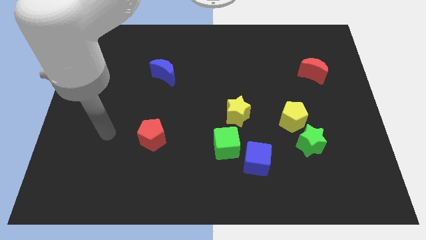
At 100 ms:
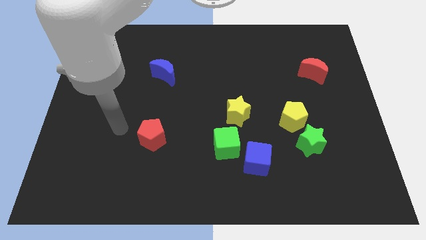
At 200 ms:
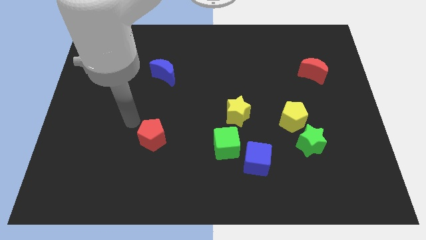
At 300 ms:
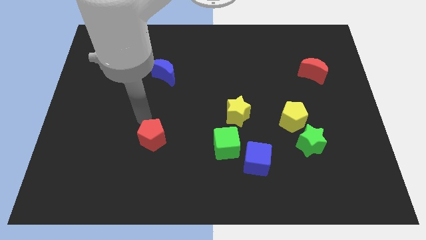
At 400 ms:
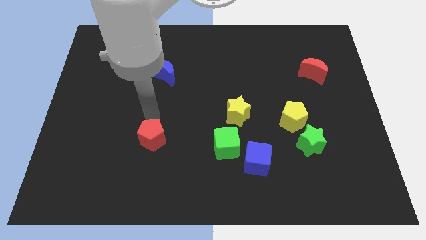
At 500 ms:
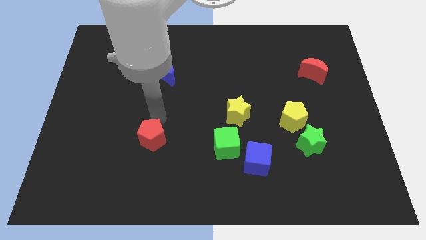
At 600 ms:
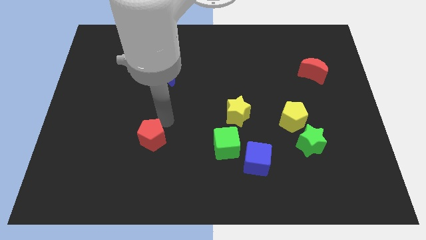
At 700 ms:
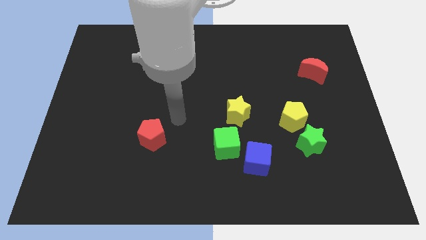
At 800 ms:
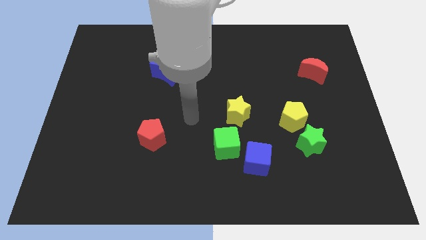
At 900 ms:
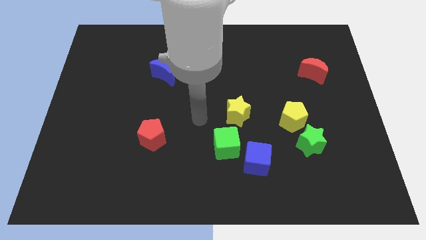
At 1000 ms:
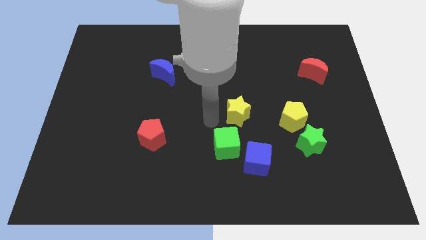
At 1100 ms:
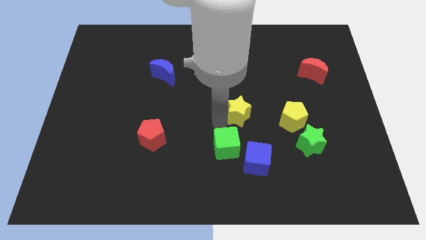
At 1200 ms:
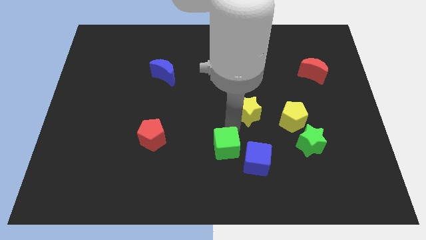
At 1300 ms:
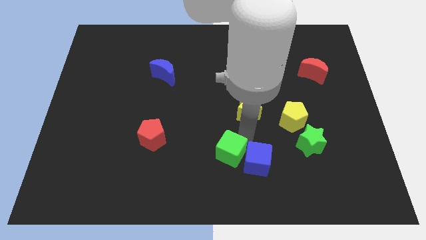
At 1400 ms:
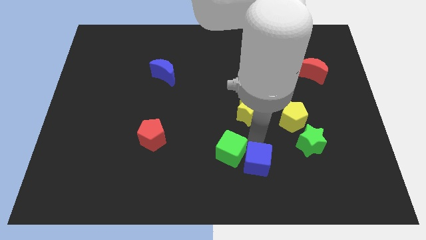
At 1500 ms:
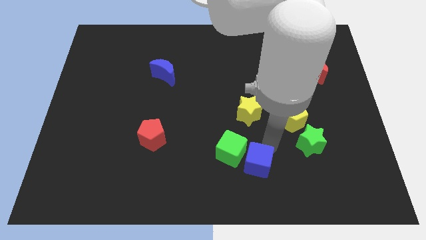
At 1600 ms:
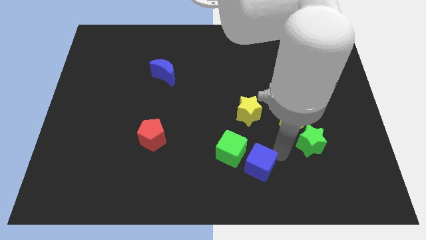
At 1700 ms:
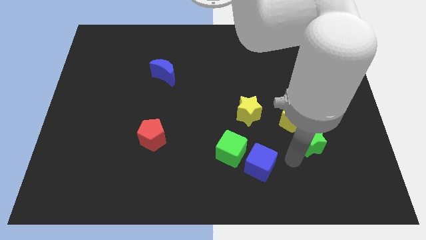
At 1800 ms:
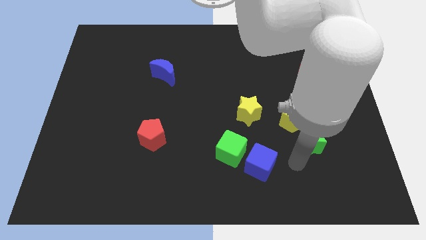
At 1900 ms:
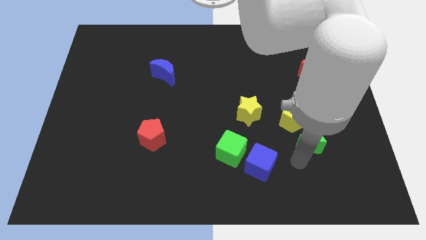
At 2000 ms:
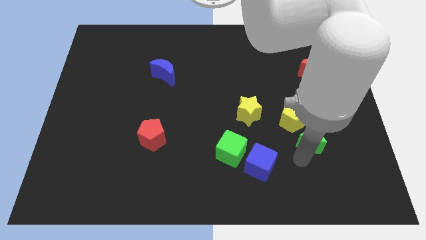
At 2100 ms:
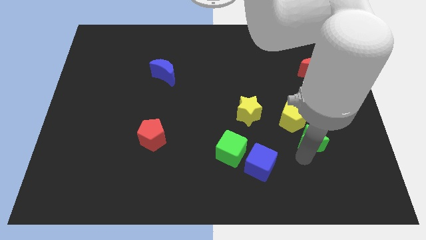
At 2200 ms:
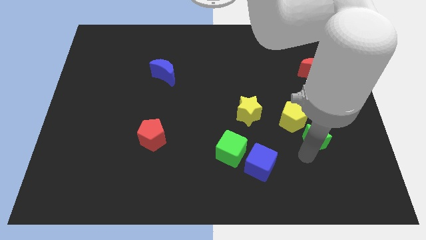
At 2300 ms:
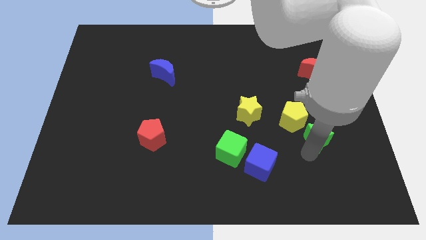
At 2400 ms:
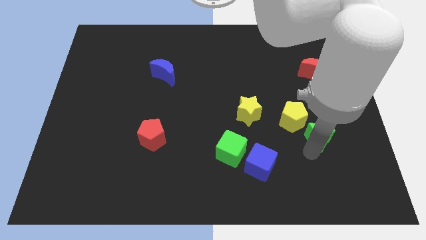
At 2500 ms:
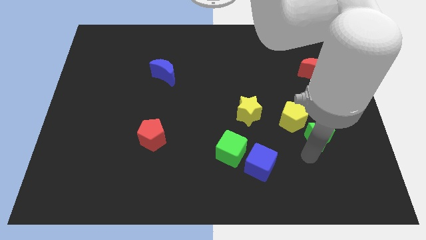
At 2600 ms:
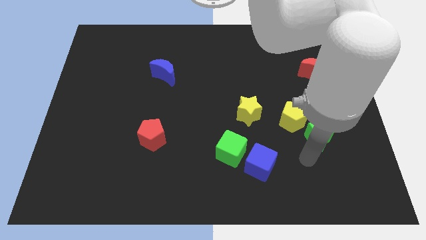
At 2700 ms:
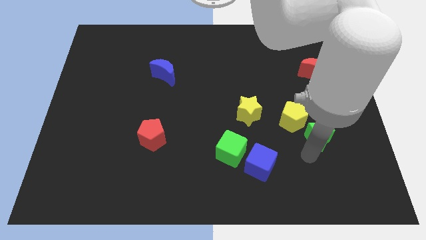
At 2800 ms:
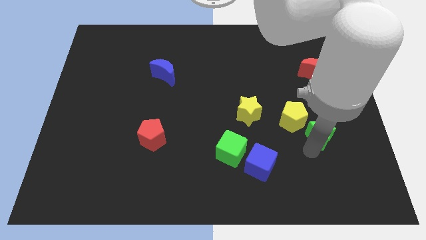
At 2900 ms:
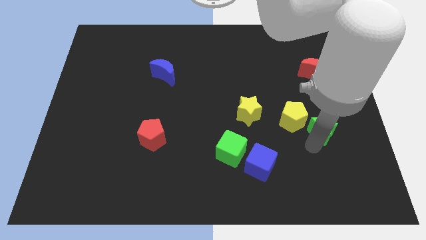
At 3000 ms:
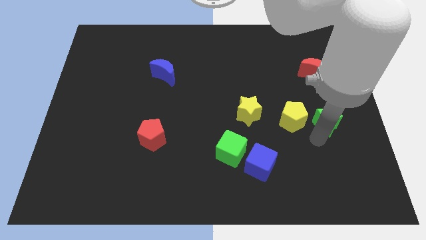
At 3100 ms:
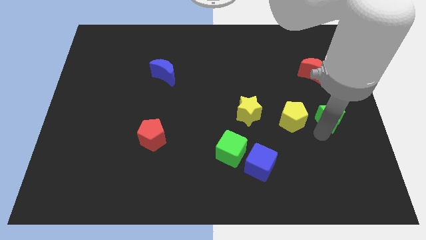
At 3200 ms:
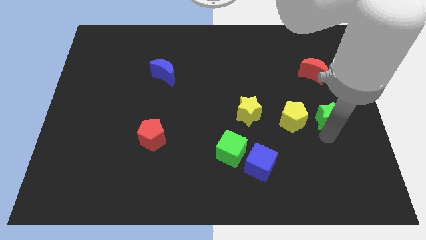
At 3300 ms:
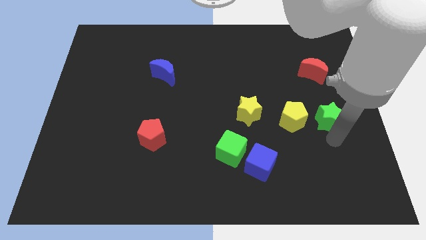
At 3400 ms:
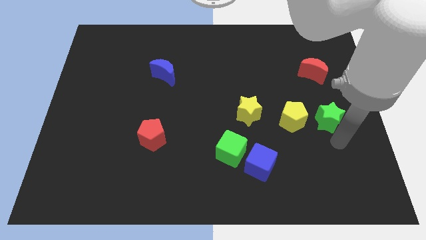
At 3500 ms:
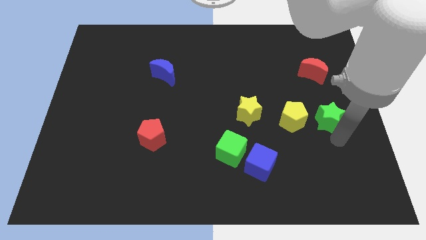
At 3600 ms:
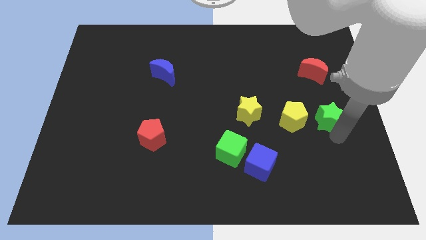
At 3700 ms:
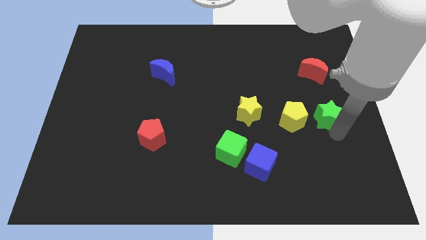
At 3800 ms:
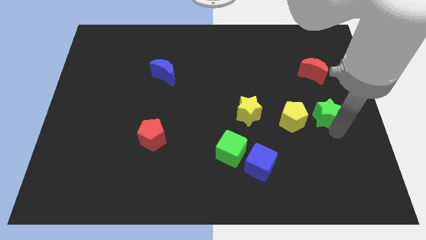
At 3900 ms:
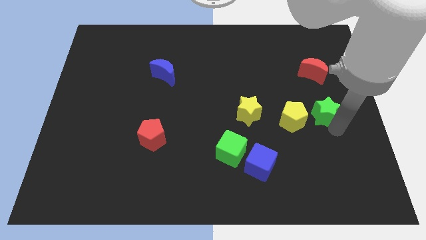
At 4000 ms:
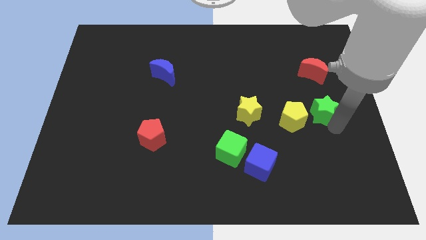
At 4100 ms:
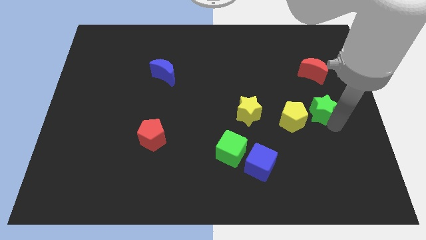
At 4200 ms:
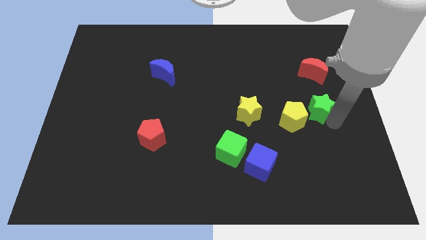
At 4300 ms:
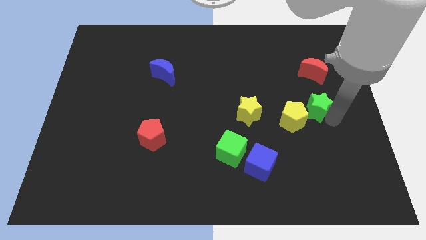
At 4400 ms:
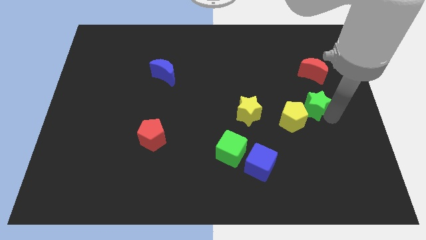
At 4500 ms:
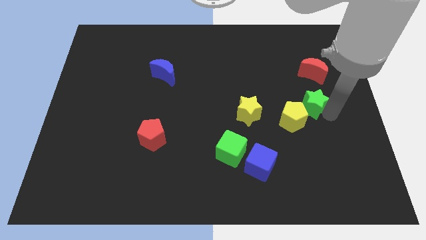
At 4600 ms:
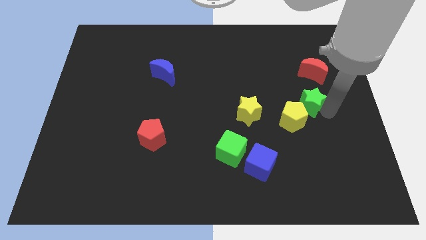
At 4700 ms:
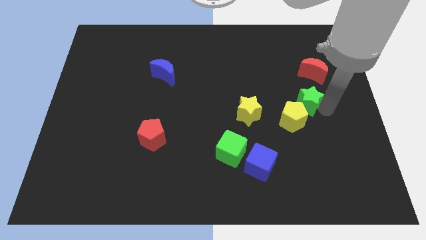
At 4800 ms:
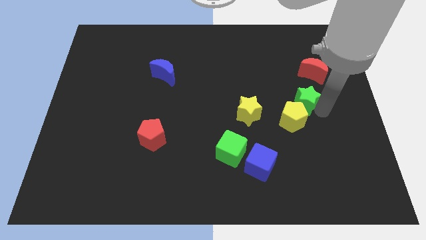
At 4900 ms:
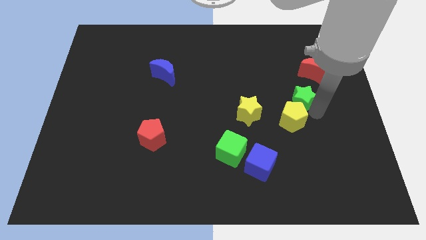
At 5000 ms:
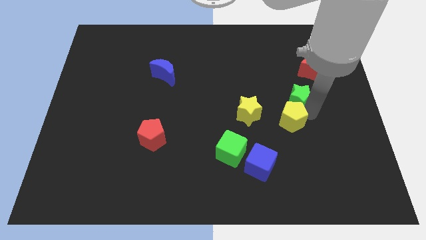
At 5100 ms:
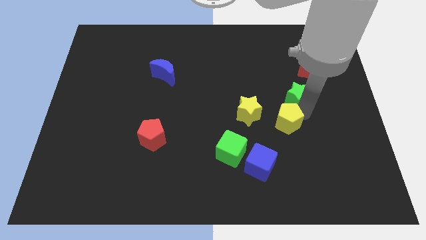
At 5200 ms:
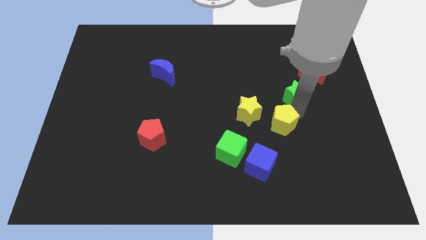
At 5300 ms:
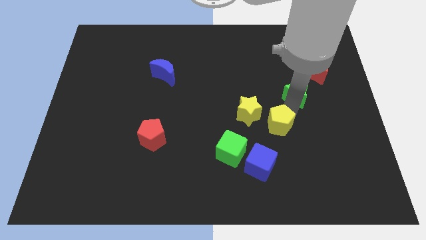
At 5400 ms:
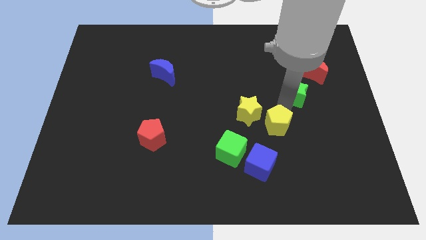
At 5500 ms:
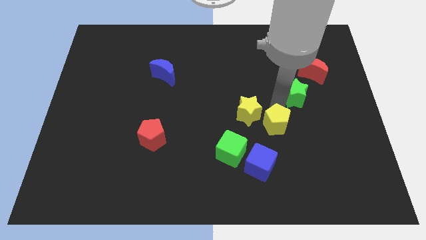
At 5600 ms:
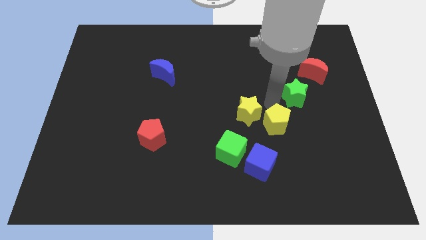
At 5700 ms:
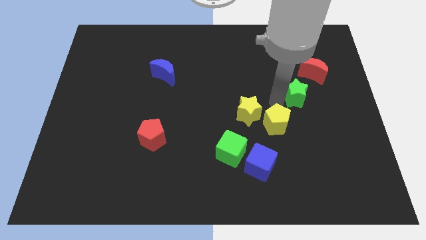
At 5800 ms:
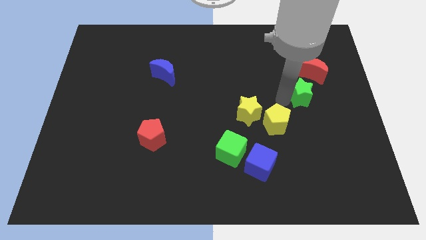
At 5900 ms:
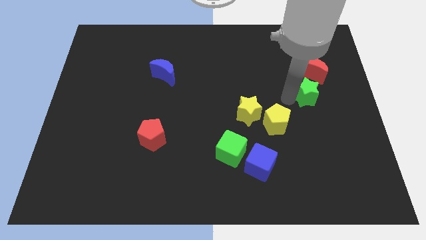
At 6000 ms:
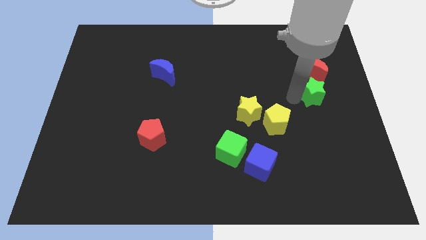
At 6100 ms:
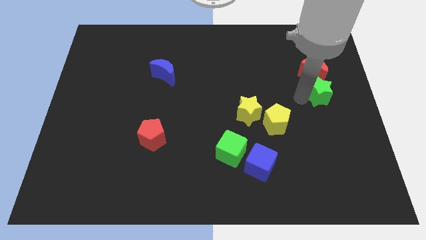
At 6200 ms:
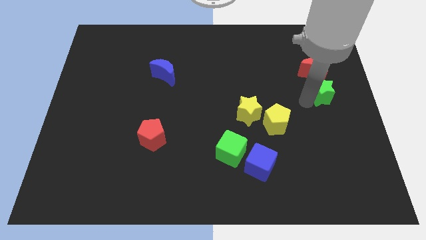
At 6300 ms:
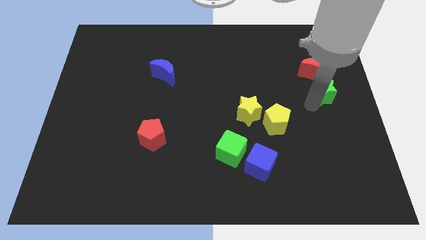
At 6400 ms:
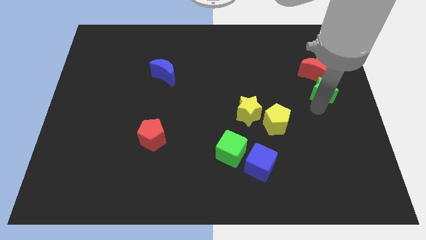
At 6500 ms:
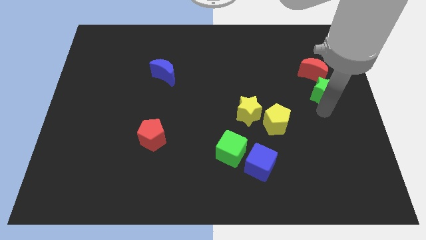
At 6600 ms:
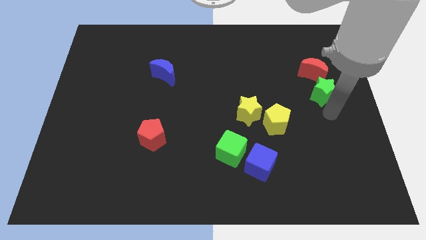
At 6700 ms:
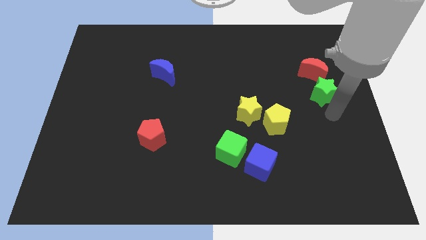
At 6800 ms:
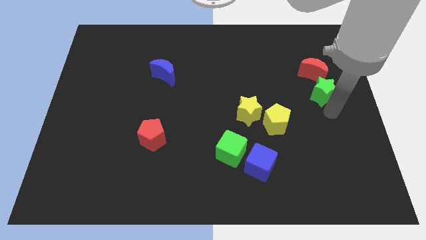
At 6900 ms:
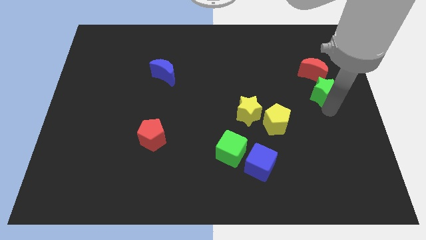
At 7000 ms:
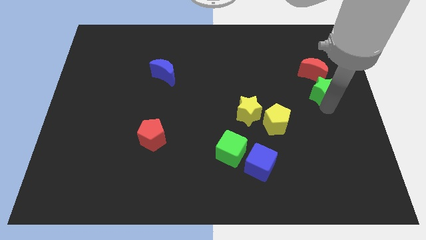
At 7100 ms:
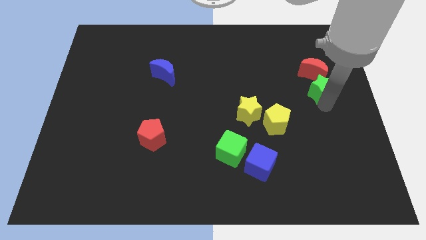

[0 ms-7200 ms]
slide the green star towards the red moon

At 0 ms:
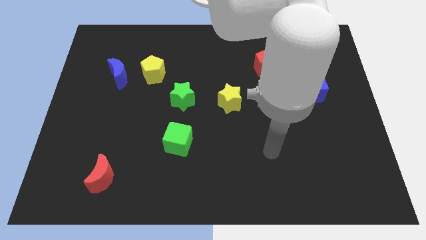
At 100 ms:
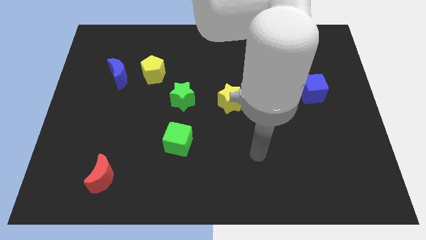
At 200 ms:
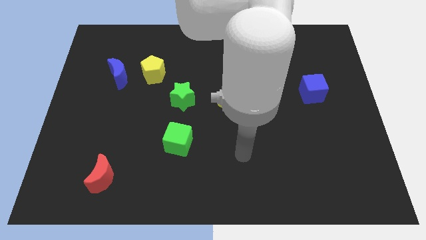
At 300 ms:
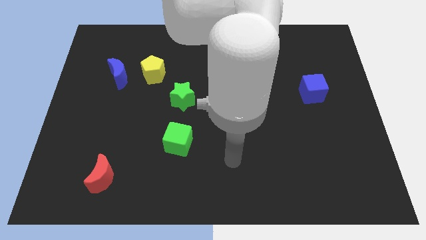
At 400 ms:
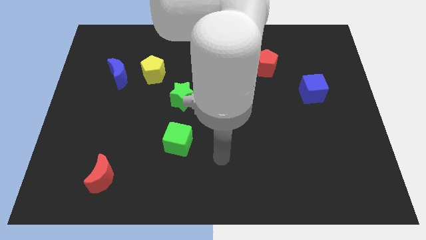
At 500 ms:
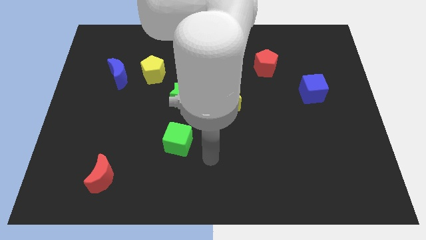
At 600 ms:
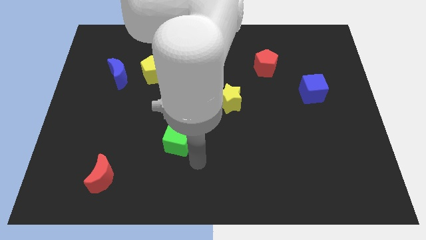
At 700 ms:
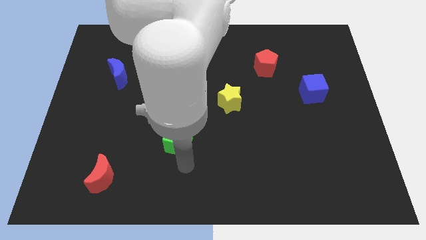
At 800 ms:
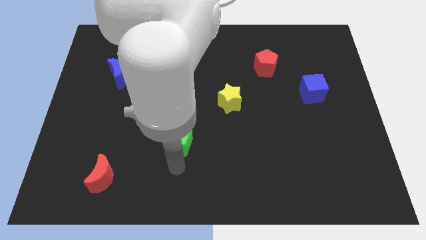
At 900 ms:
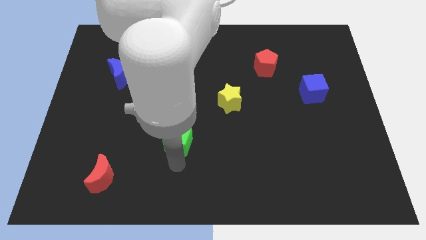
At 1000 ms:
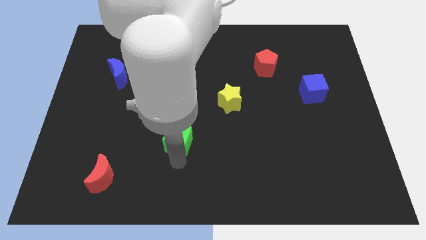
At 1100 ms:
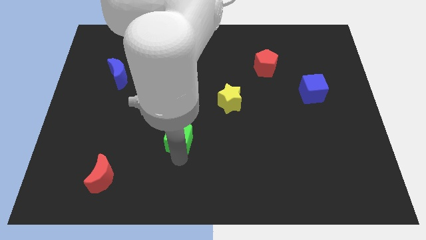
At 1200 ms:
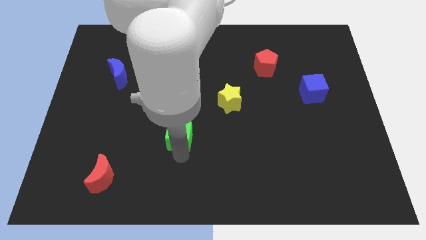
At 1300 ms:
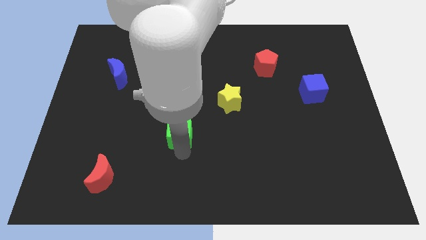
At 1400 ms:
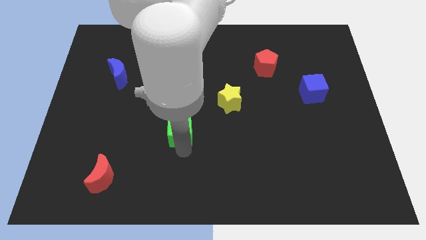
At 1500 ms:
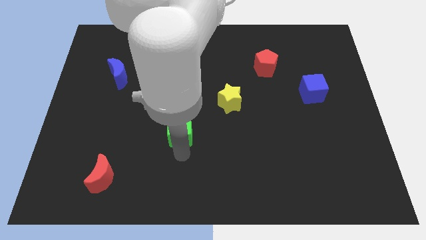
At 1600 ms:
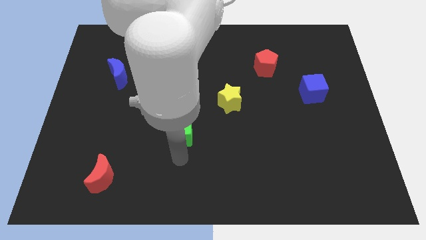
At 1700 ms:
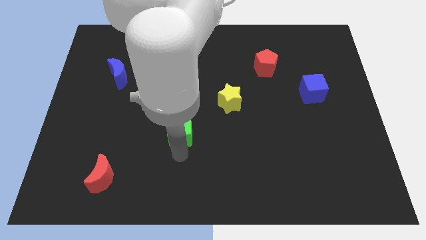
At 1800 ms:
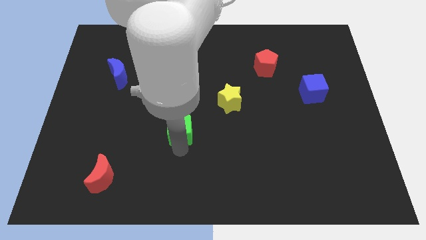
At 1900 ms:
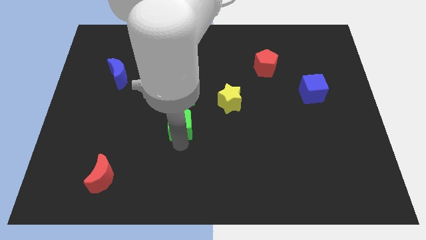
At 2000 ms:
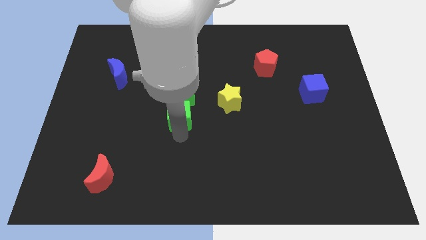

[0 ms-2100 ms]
push the green cube to the green star
